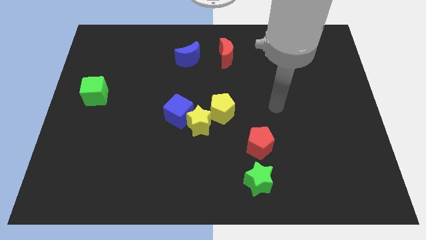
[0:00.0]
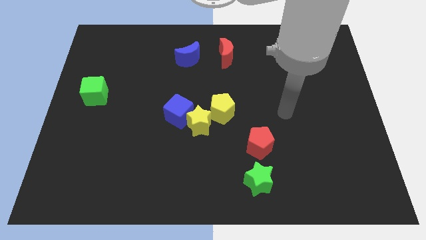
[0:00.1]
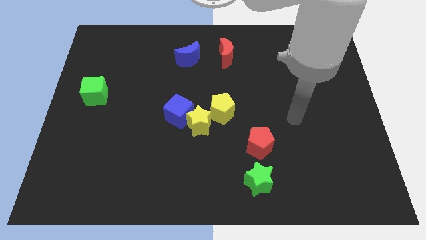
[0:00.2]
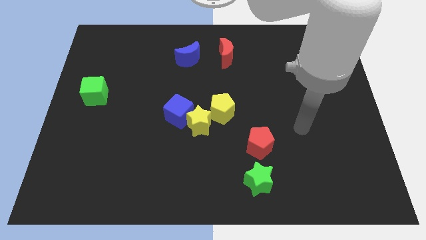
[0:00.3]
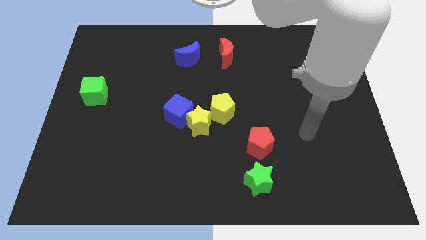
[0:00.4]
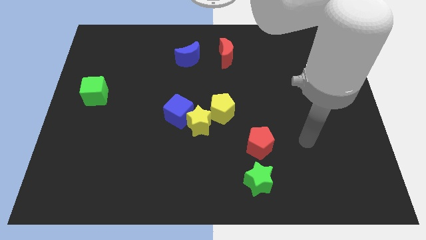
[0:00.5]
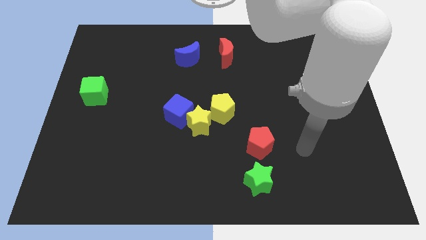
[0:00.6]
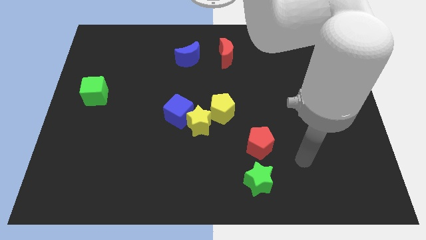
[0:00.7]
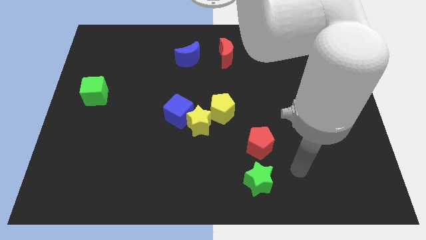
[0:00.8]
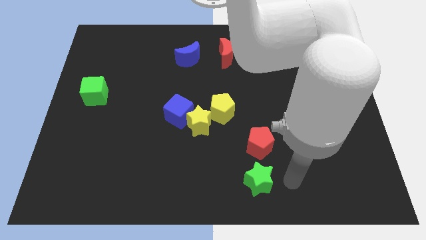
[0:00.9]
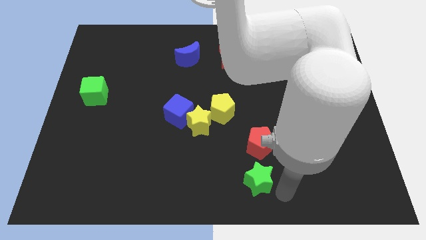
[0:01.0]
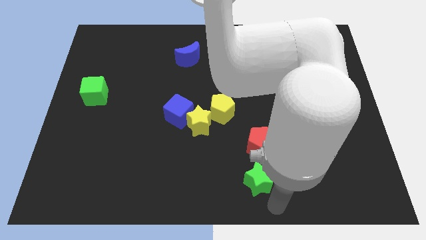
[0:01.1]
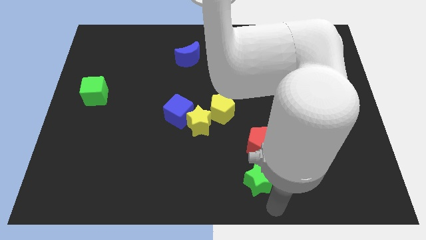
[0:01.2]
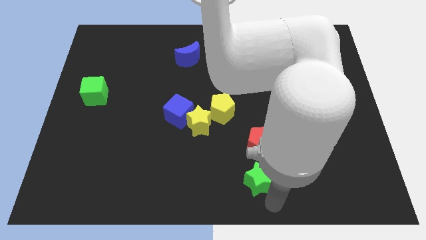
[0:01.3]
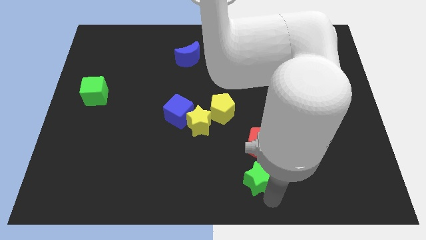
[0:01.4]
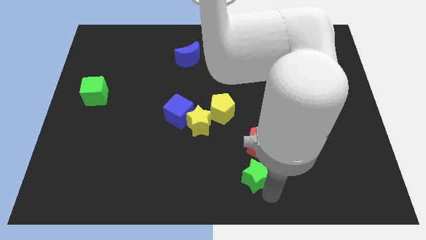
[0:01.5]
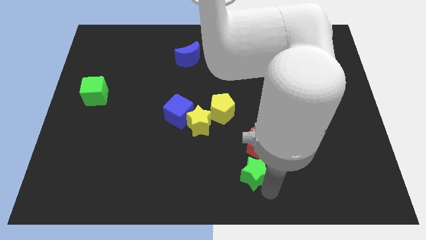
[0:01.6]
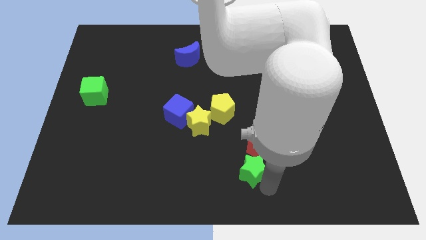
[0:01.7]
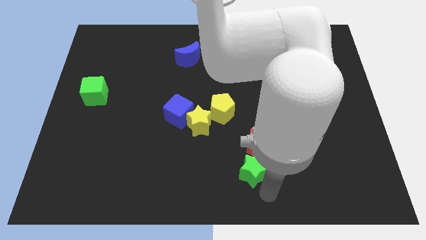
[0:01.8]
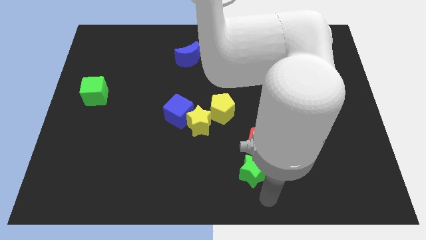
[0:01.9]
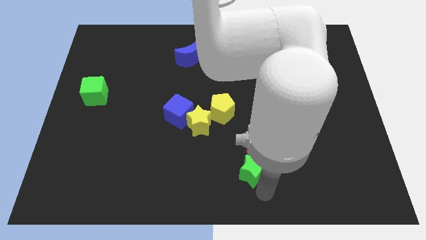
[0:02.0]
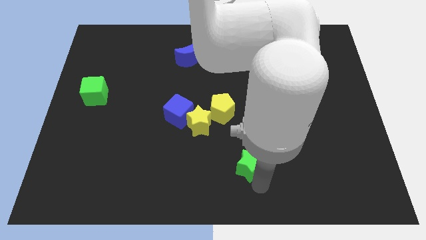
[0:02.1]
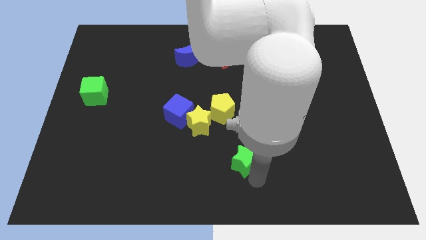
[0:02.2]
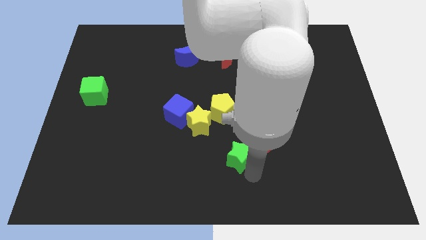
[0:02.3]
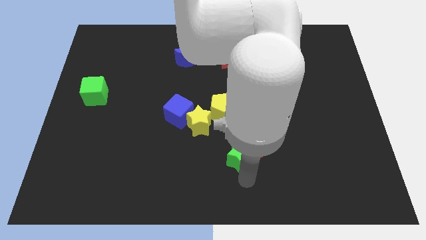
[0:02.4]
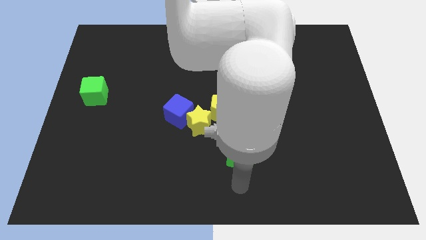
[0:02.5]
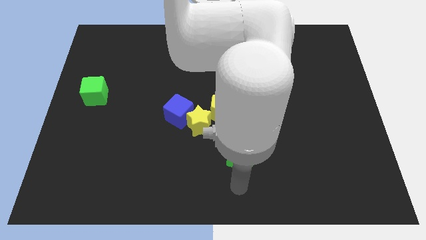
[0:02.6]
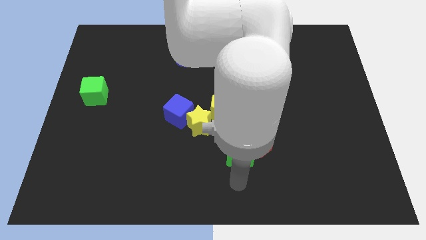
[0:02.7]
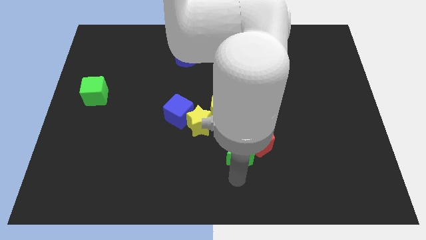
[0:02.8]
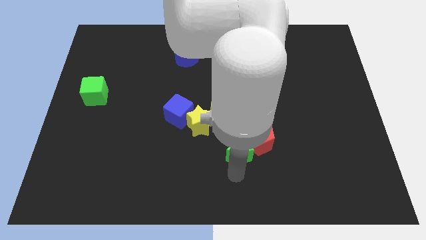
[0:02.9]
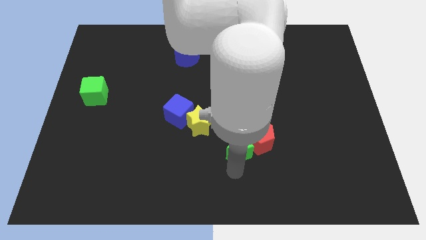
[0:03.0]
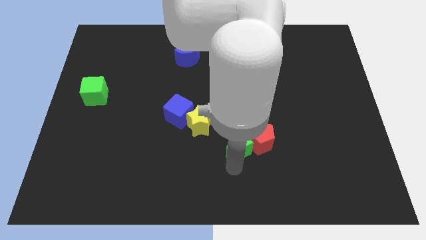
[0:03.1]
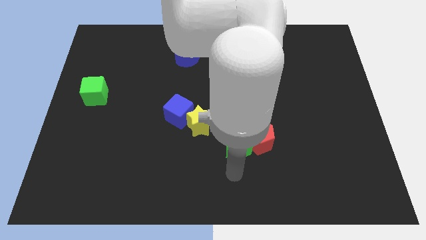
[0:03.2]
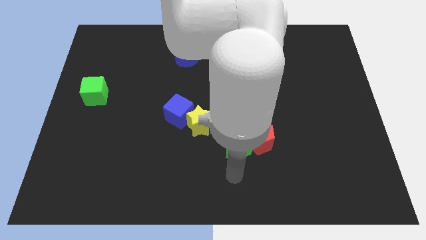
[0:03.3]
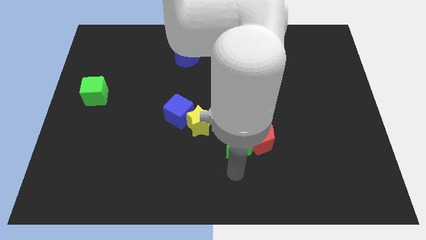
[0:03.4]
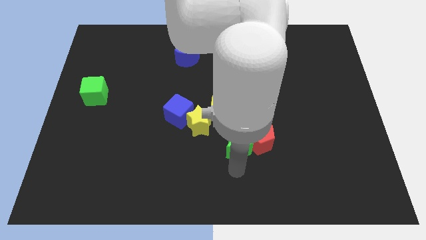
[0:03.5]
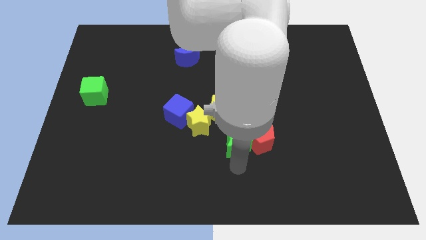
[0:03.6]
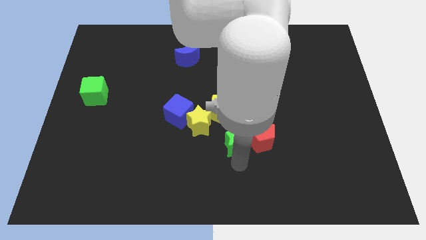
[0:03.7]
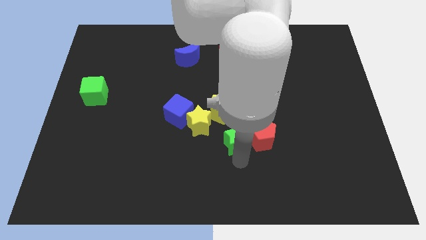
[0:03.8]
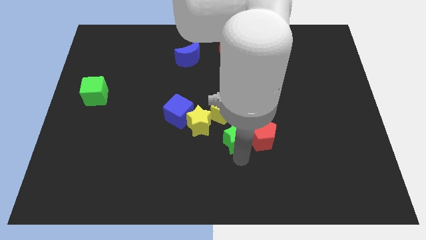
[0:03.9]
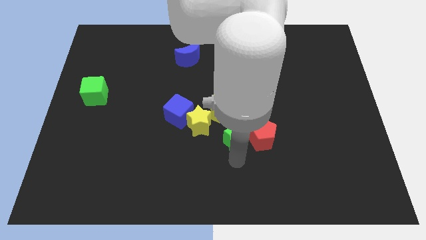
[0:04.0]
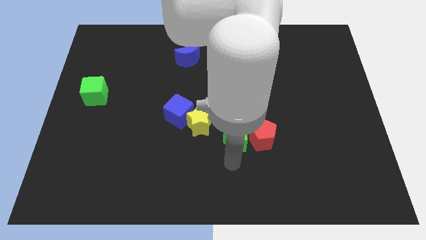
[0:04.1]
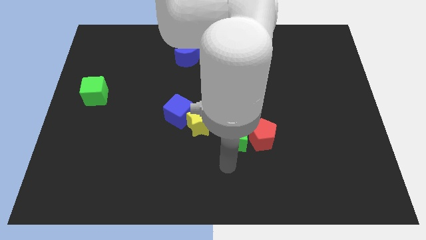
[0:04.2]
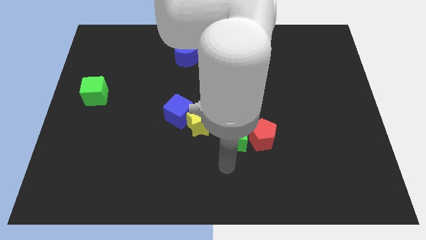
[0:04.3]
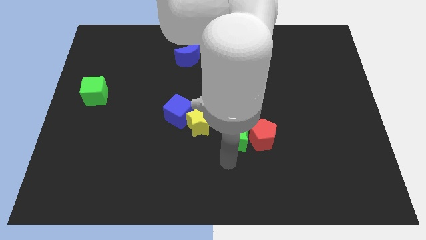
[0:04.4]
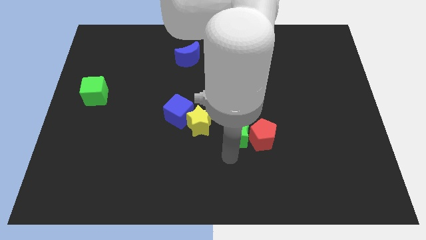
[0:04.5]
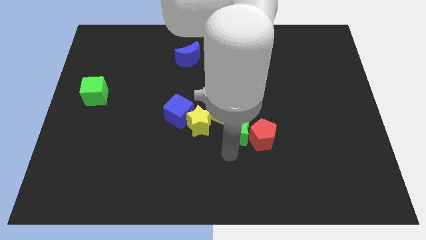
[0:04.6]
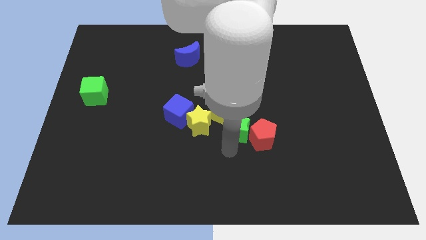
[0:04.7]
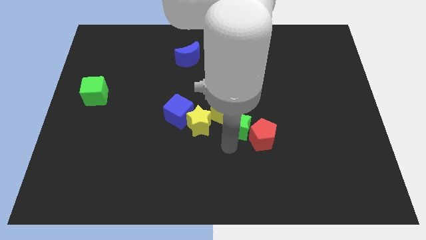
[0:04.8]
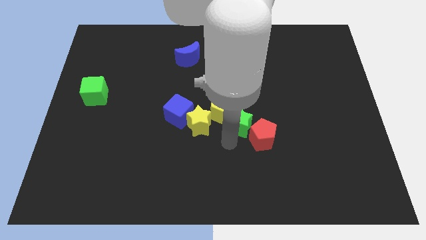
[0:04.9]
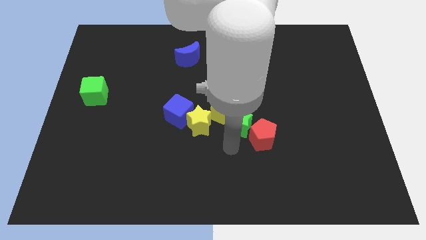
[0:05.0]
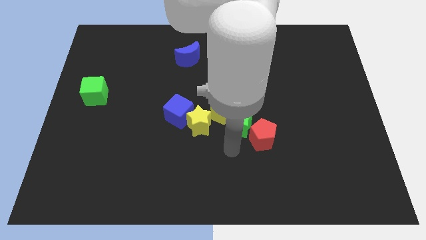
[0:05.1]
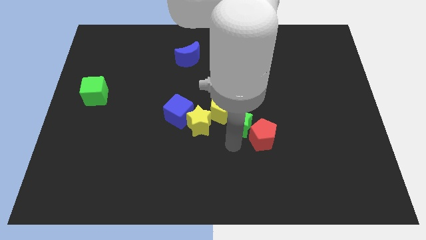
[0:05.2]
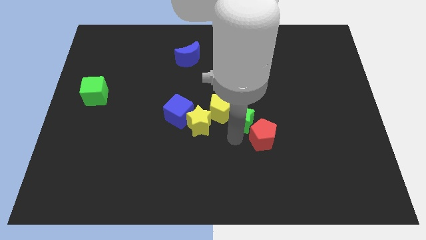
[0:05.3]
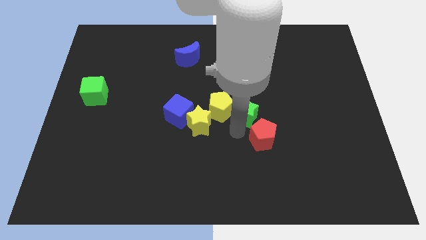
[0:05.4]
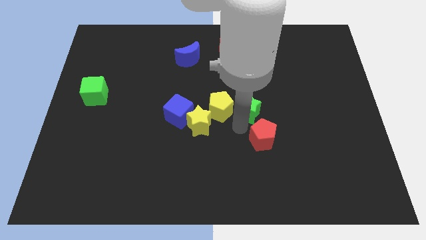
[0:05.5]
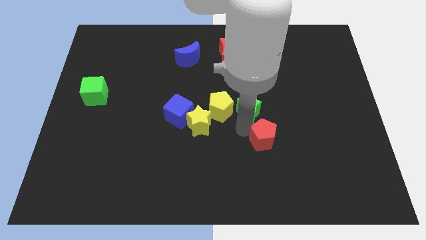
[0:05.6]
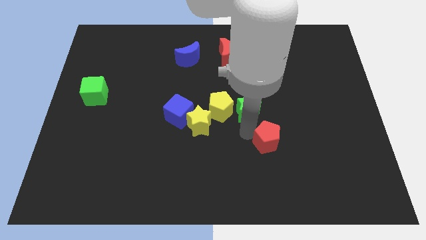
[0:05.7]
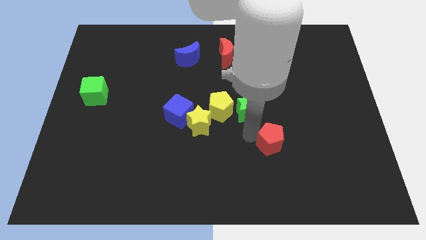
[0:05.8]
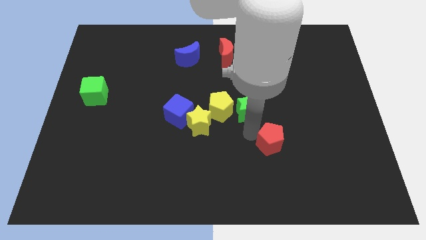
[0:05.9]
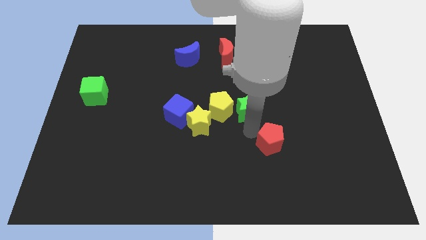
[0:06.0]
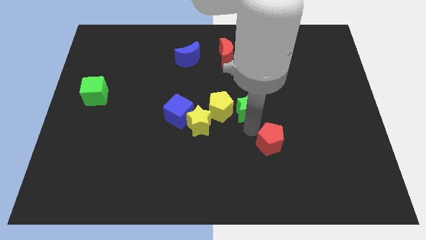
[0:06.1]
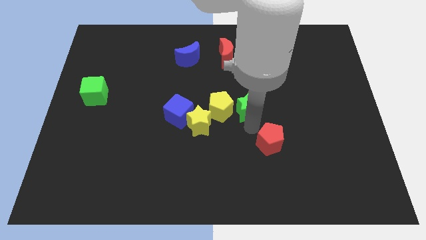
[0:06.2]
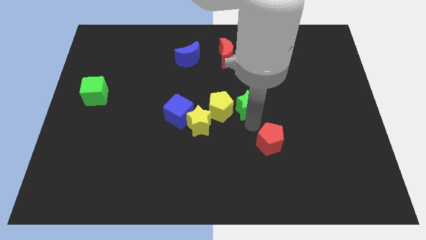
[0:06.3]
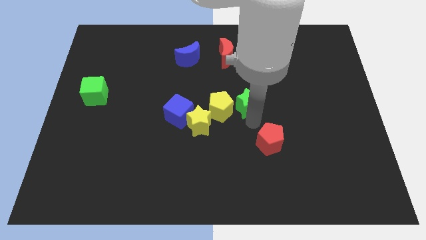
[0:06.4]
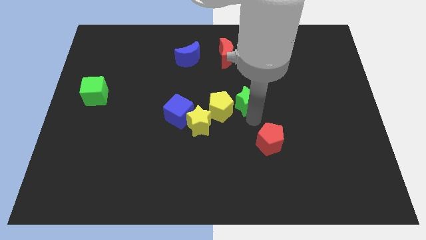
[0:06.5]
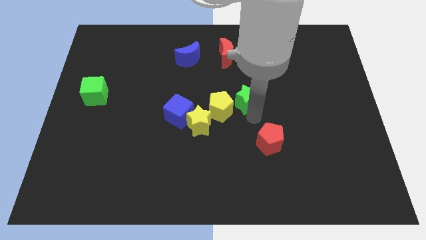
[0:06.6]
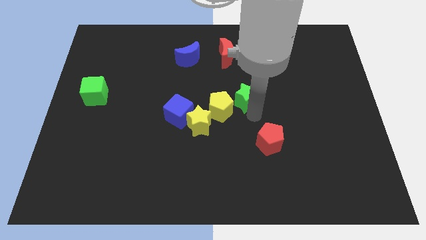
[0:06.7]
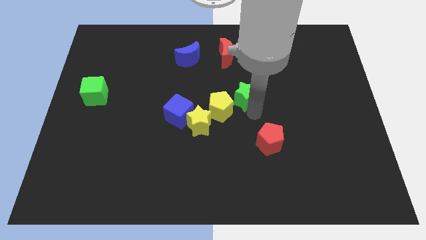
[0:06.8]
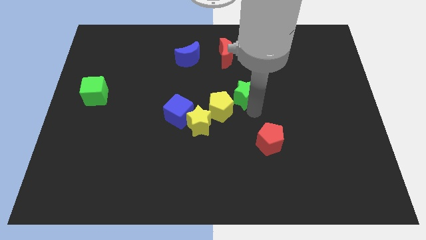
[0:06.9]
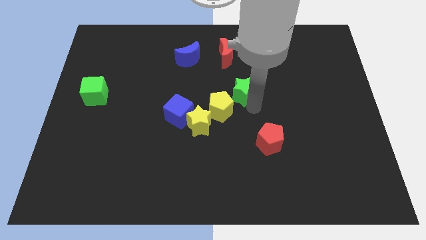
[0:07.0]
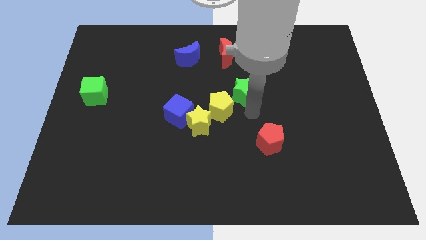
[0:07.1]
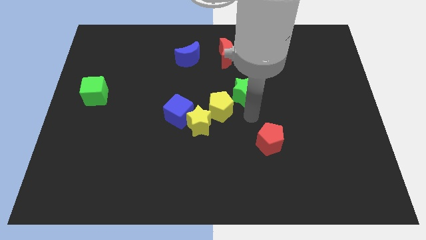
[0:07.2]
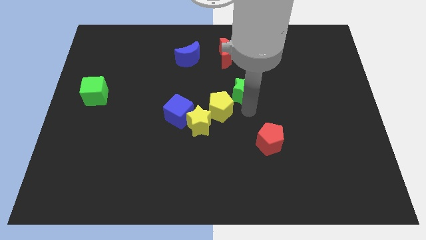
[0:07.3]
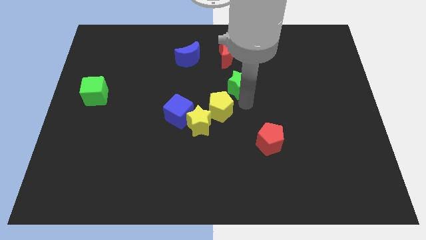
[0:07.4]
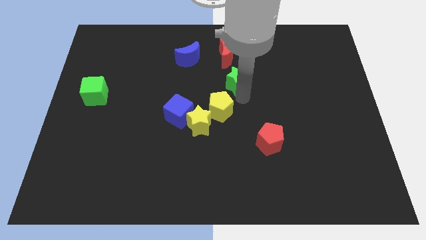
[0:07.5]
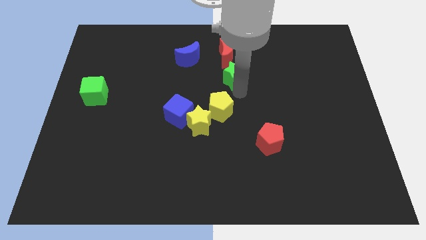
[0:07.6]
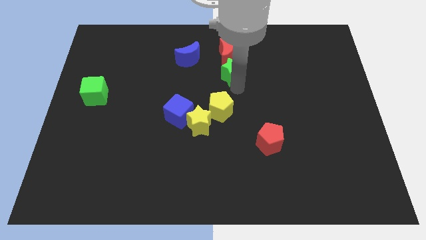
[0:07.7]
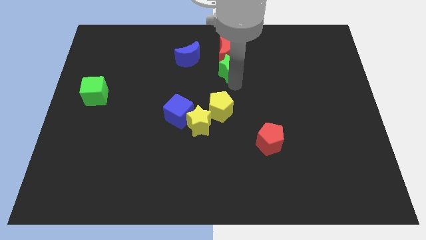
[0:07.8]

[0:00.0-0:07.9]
put the green star next to the red moon
